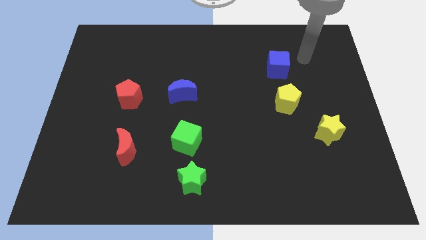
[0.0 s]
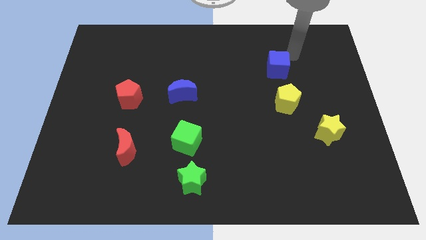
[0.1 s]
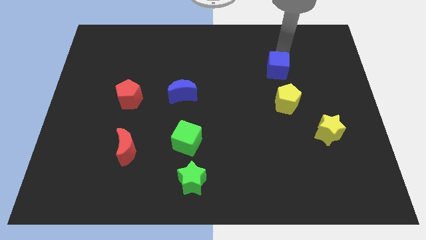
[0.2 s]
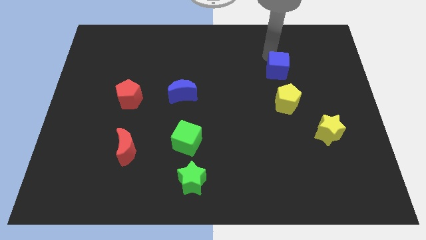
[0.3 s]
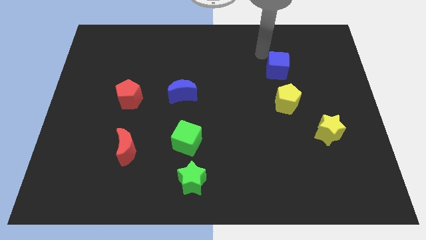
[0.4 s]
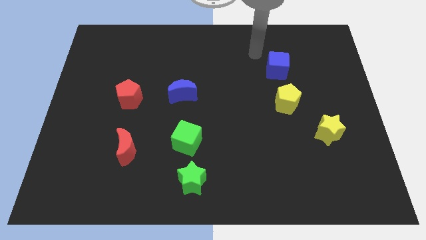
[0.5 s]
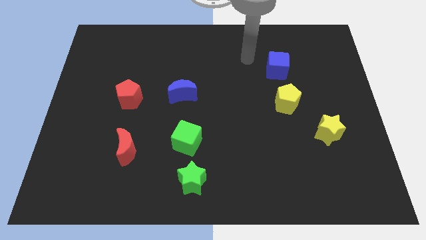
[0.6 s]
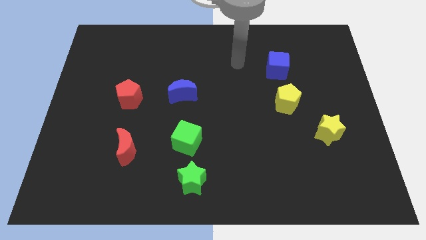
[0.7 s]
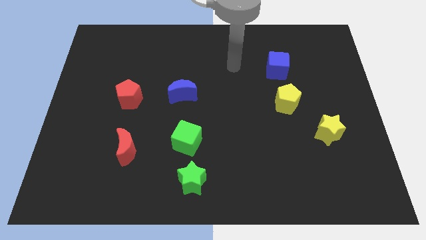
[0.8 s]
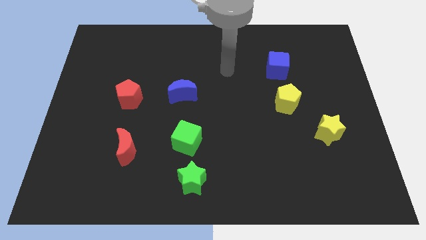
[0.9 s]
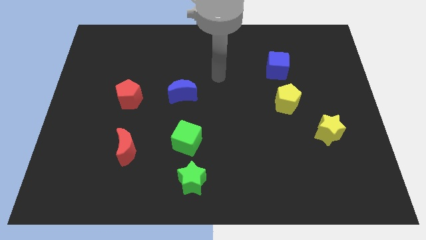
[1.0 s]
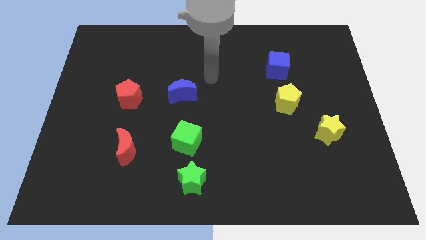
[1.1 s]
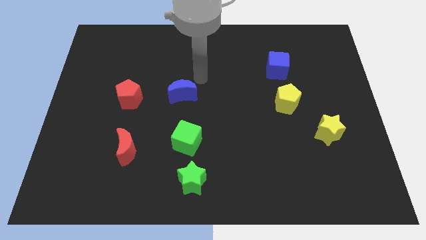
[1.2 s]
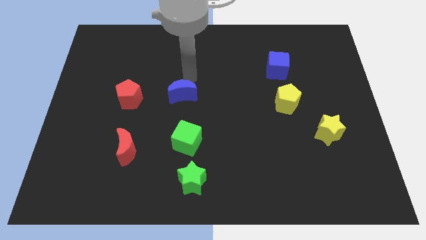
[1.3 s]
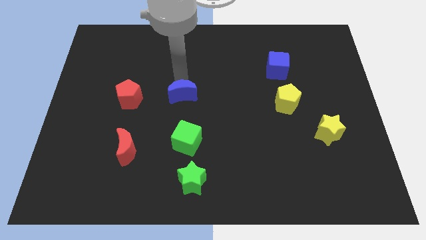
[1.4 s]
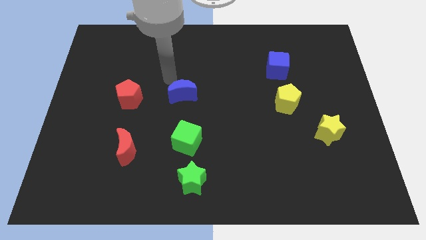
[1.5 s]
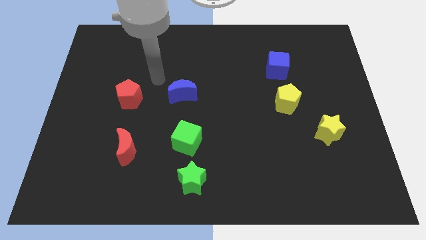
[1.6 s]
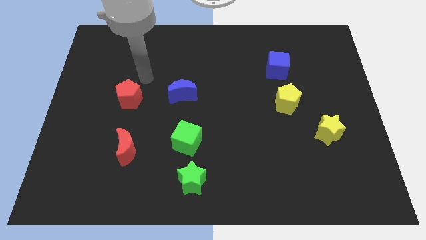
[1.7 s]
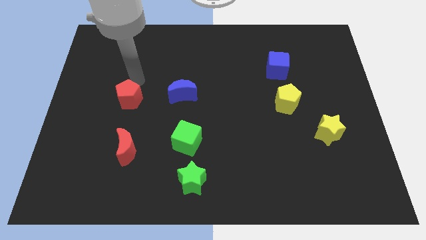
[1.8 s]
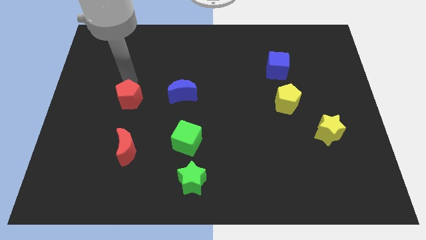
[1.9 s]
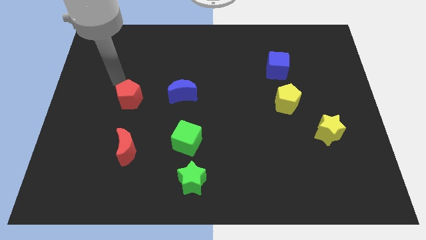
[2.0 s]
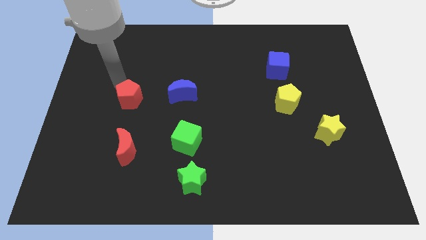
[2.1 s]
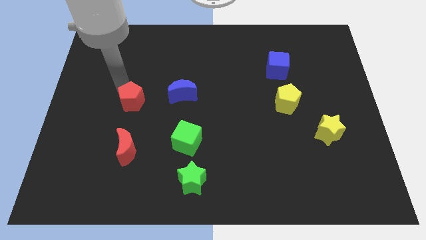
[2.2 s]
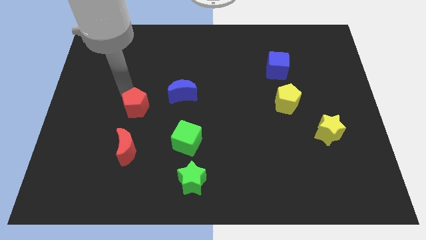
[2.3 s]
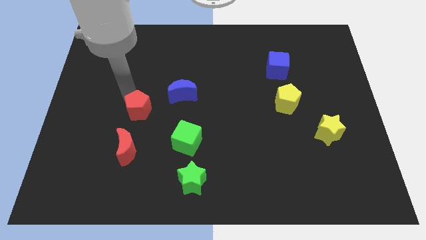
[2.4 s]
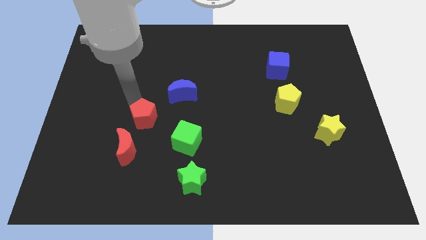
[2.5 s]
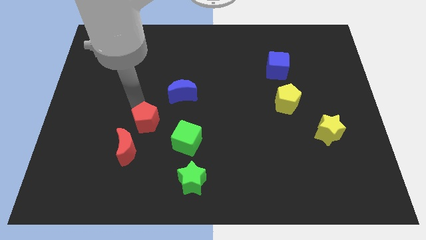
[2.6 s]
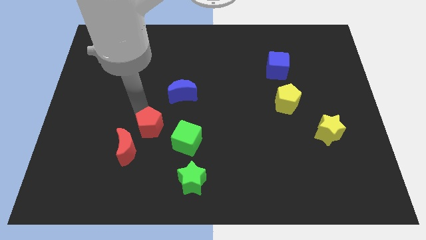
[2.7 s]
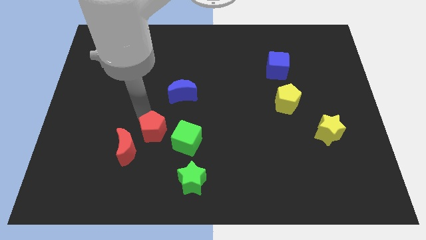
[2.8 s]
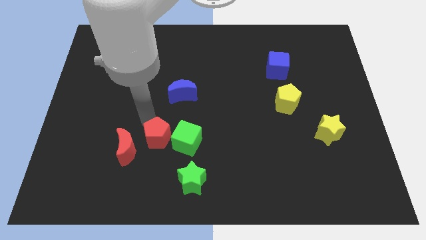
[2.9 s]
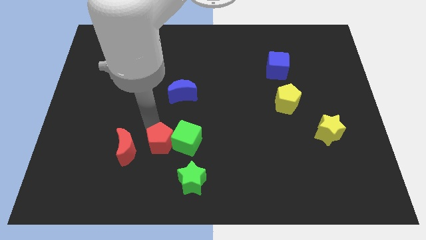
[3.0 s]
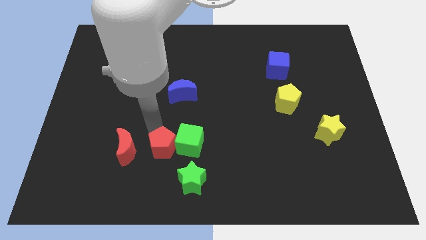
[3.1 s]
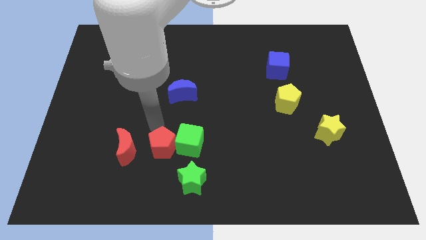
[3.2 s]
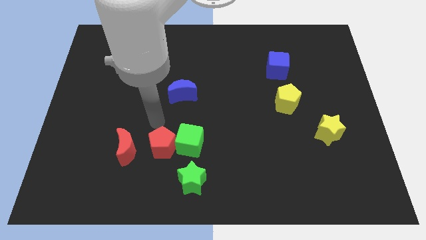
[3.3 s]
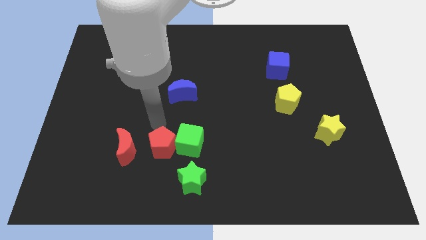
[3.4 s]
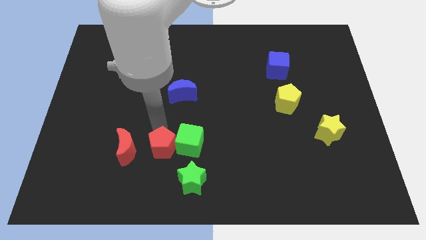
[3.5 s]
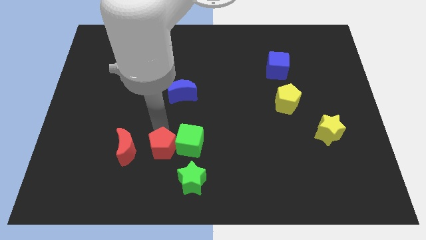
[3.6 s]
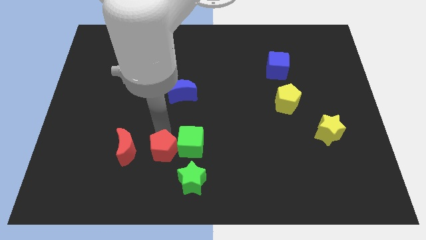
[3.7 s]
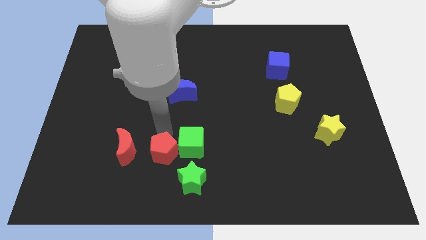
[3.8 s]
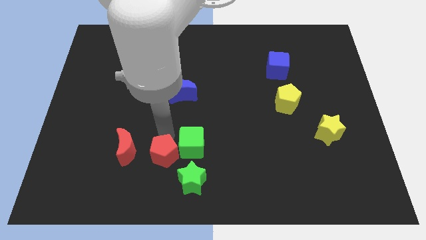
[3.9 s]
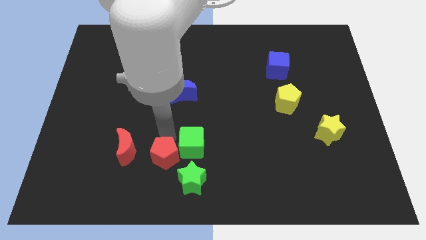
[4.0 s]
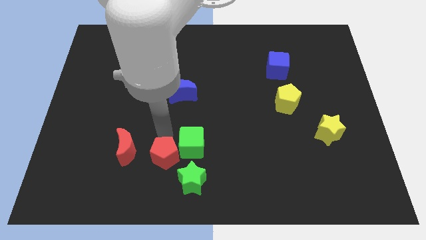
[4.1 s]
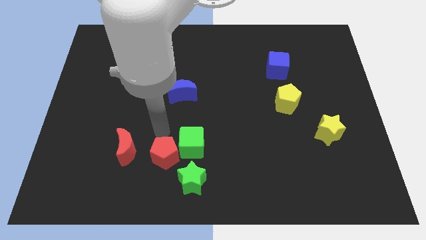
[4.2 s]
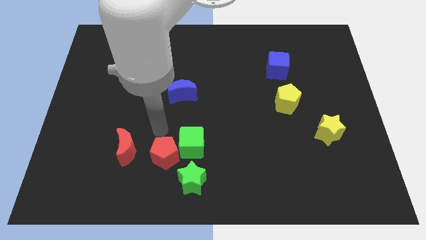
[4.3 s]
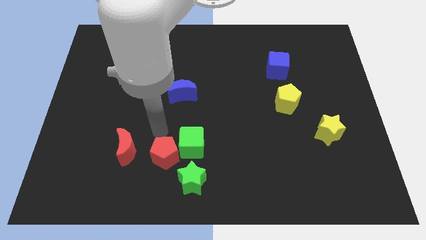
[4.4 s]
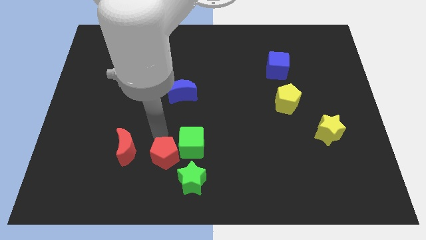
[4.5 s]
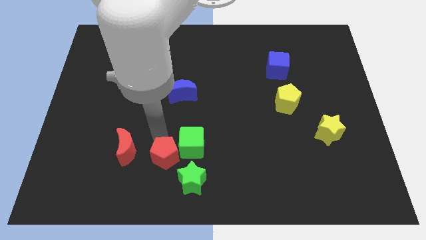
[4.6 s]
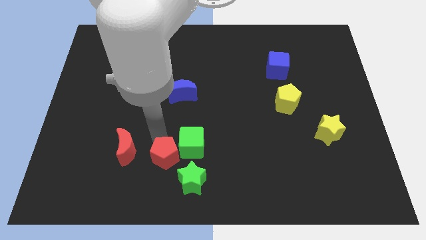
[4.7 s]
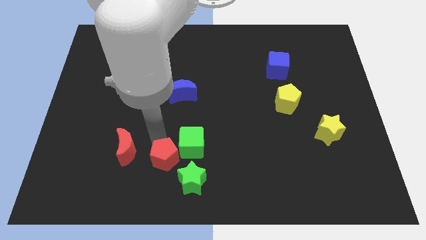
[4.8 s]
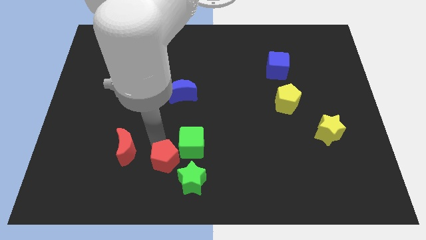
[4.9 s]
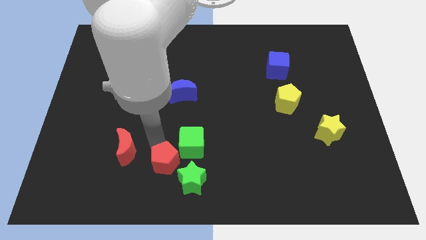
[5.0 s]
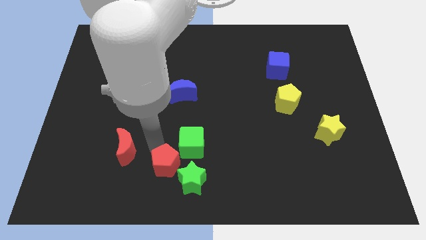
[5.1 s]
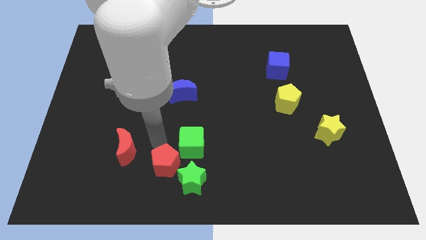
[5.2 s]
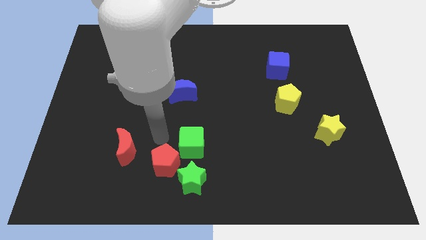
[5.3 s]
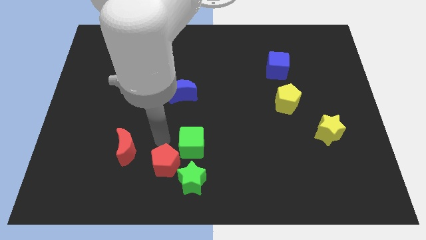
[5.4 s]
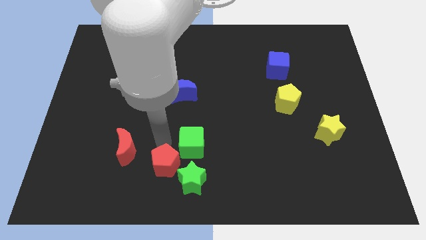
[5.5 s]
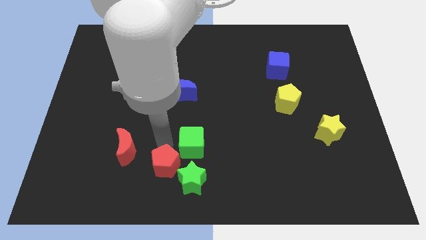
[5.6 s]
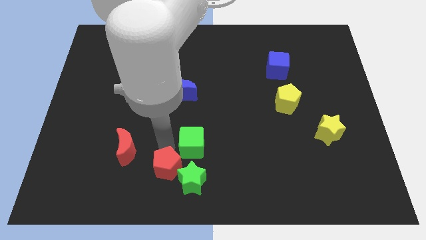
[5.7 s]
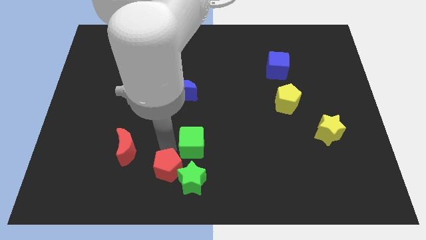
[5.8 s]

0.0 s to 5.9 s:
push the red pentagon to the bottom
